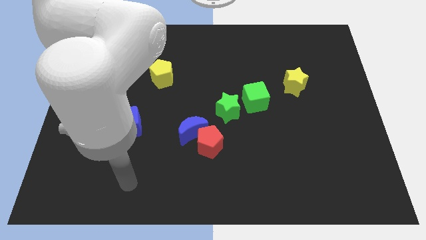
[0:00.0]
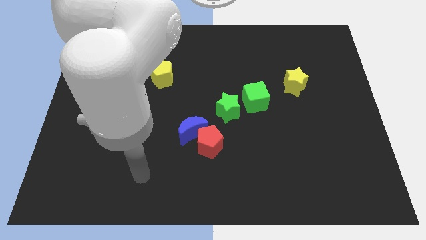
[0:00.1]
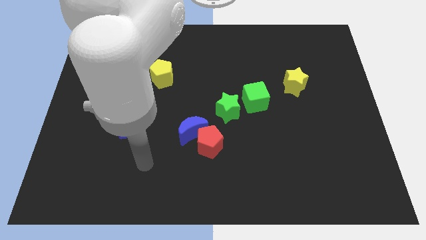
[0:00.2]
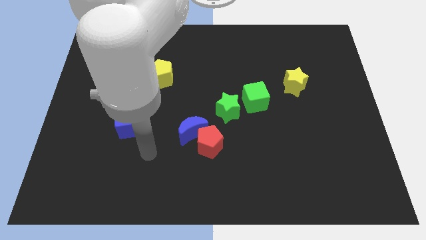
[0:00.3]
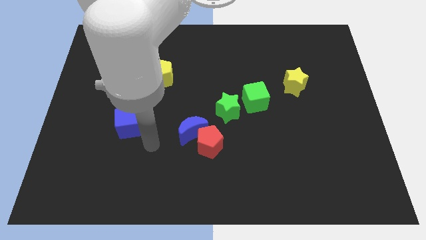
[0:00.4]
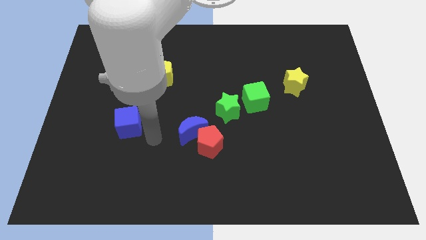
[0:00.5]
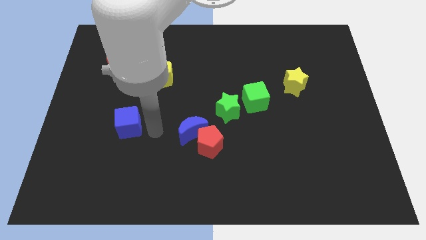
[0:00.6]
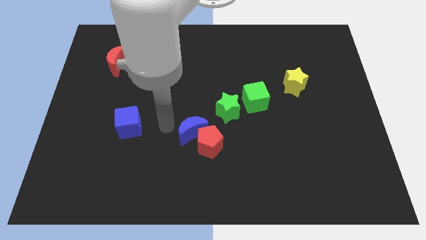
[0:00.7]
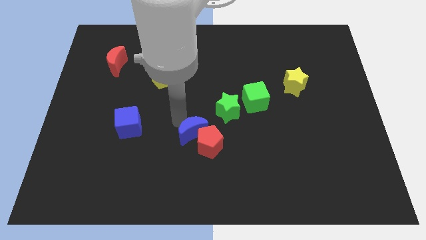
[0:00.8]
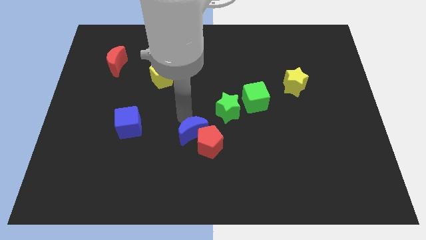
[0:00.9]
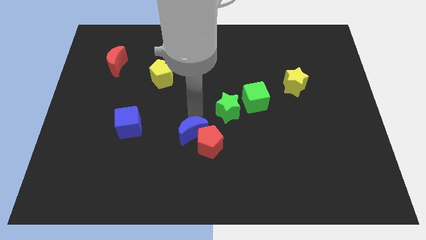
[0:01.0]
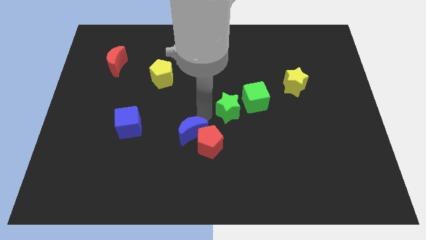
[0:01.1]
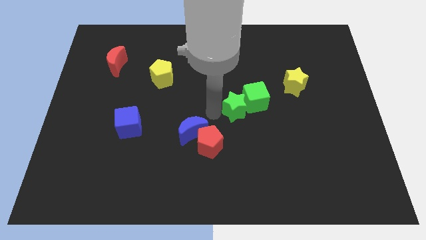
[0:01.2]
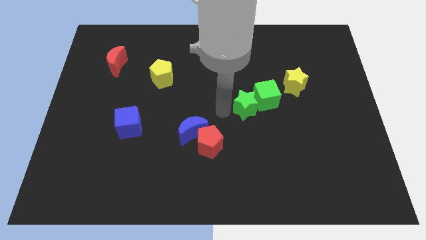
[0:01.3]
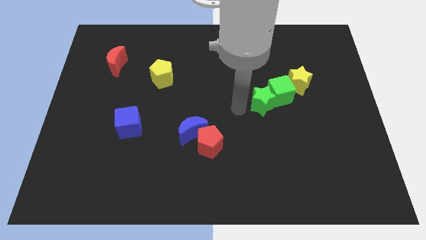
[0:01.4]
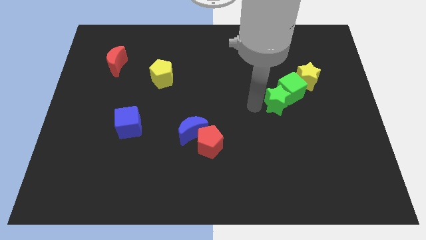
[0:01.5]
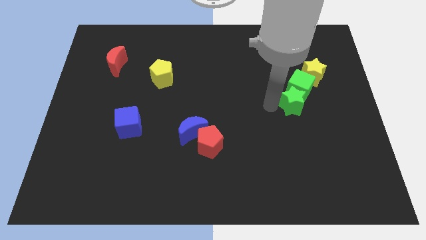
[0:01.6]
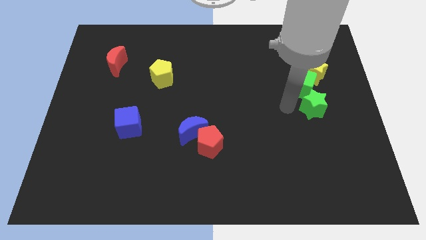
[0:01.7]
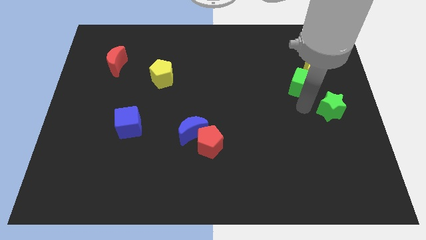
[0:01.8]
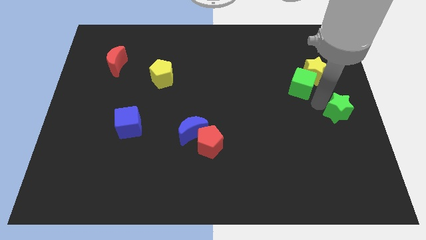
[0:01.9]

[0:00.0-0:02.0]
separate the green cube from the green star

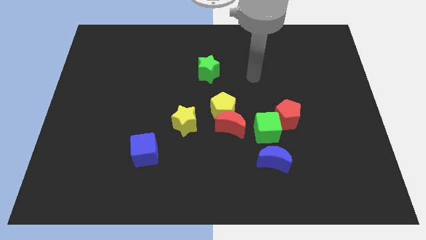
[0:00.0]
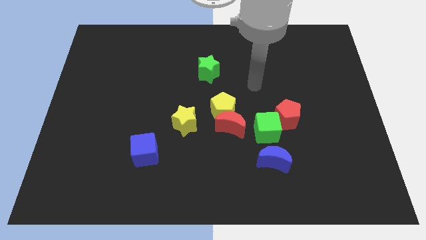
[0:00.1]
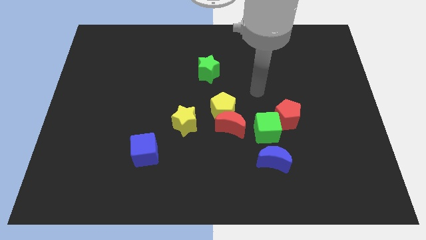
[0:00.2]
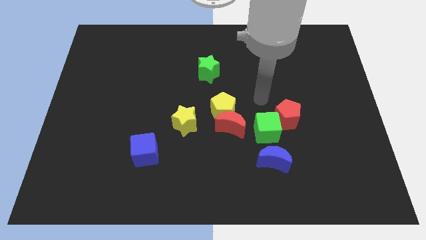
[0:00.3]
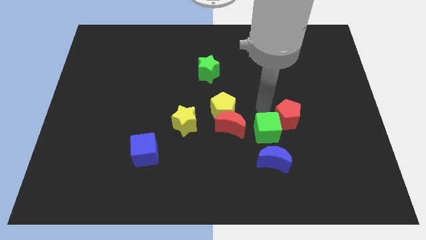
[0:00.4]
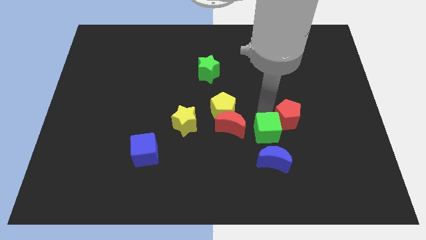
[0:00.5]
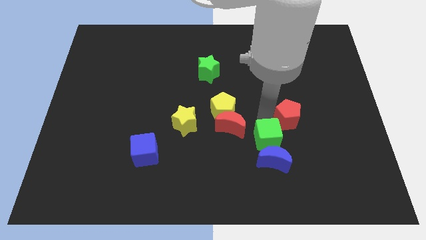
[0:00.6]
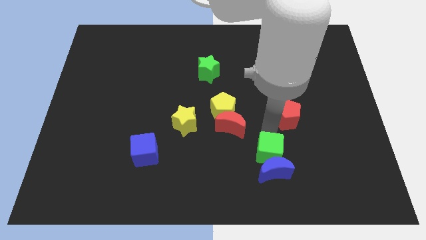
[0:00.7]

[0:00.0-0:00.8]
move the red pentagon away from the green cube

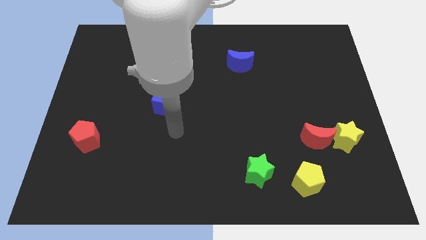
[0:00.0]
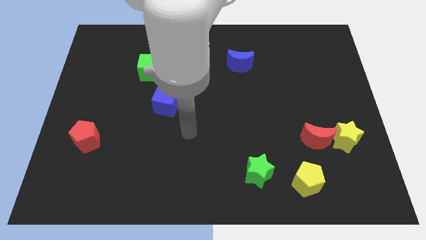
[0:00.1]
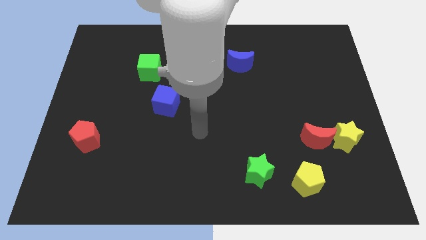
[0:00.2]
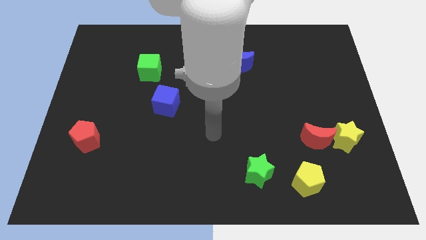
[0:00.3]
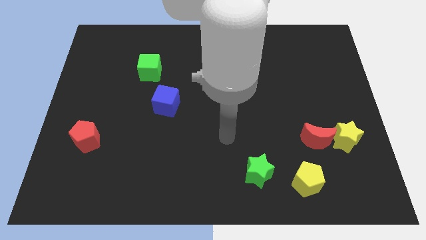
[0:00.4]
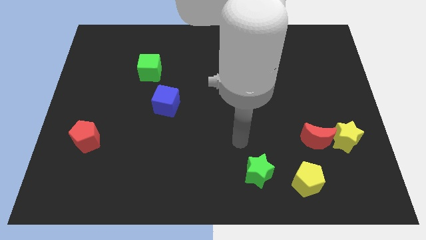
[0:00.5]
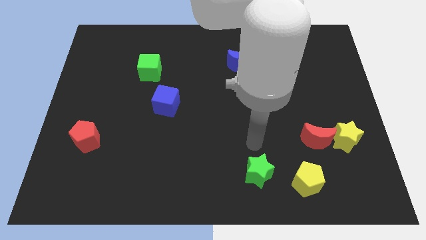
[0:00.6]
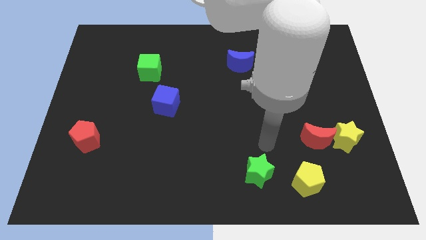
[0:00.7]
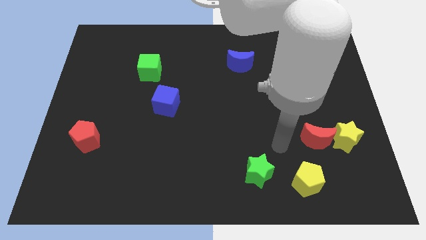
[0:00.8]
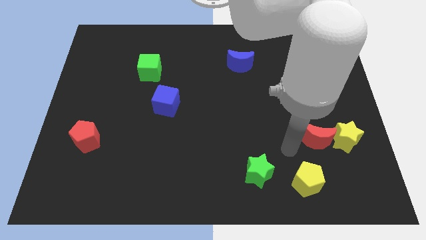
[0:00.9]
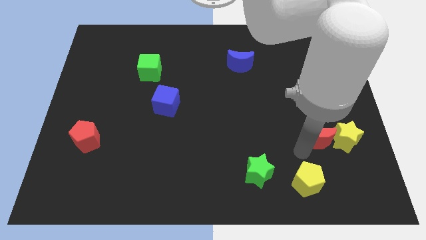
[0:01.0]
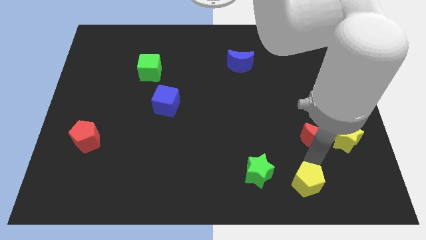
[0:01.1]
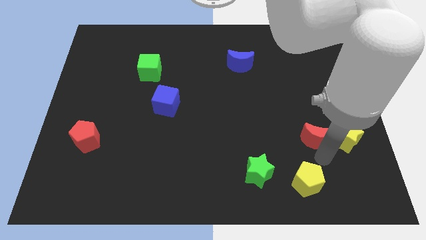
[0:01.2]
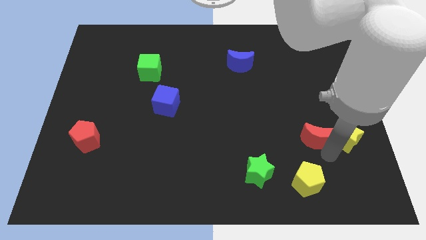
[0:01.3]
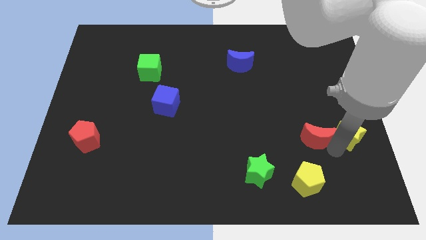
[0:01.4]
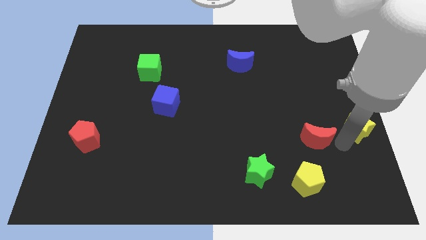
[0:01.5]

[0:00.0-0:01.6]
separate the red moon from the yellow star

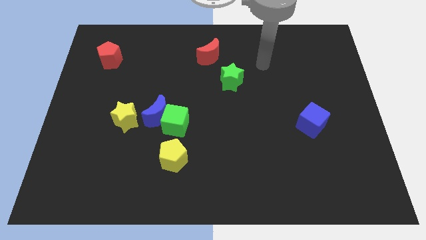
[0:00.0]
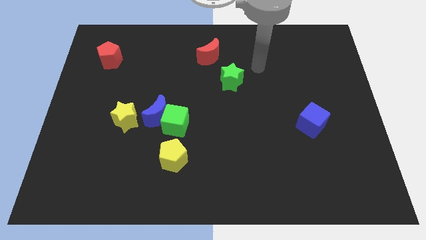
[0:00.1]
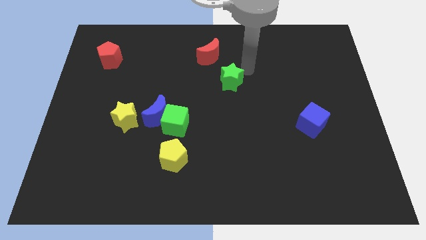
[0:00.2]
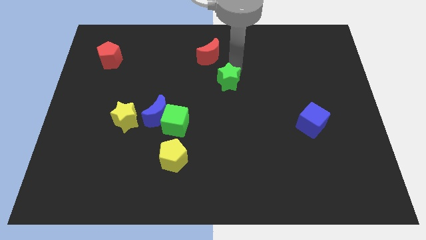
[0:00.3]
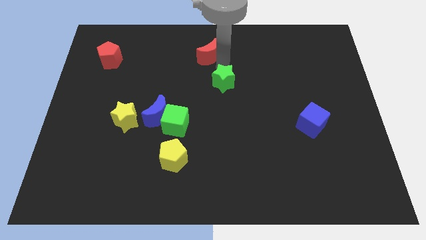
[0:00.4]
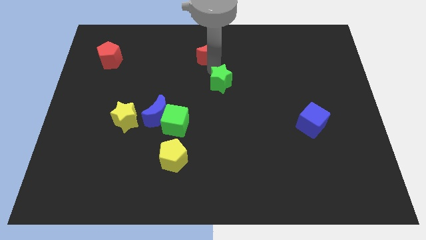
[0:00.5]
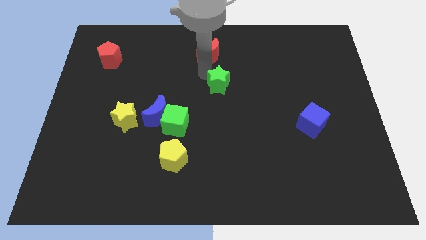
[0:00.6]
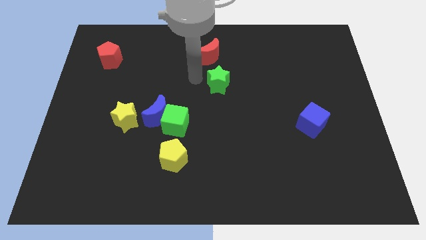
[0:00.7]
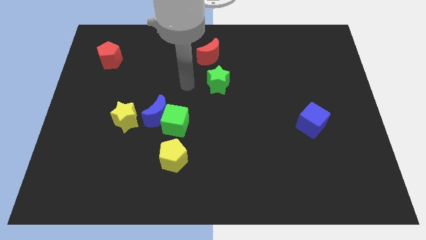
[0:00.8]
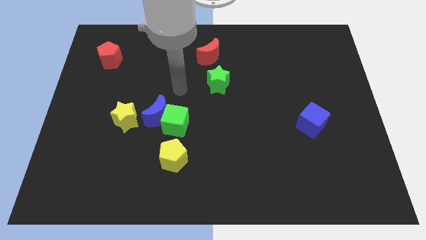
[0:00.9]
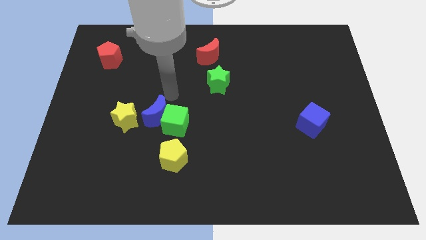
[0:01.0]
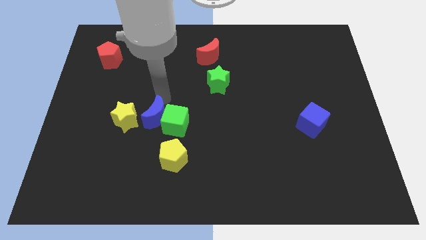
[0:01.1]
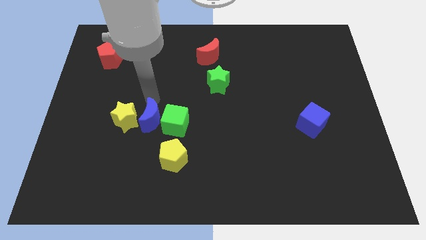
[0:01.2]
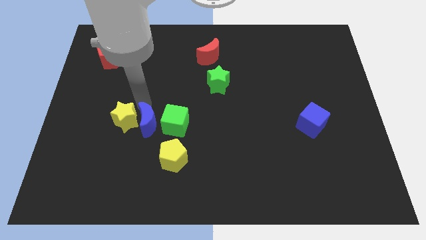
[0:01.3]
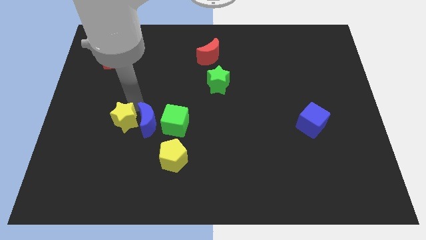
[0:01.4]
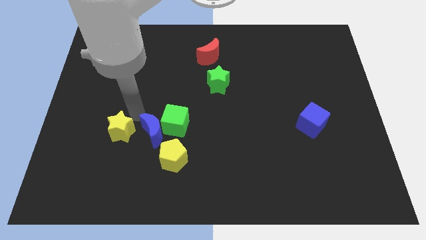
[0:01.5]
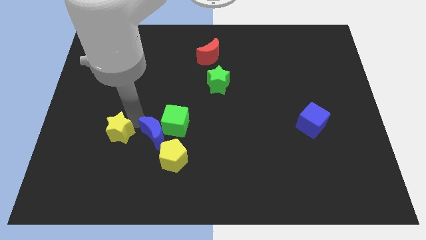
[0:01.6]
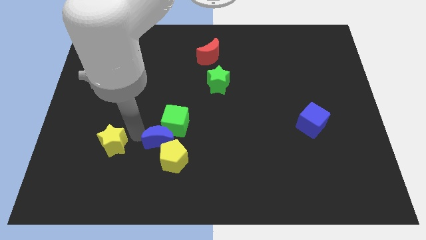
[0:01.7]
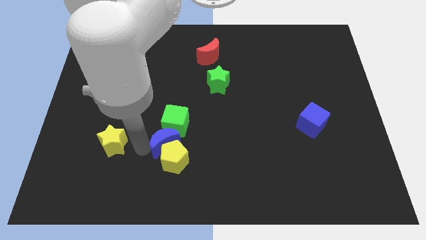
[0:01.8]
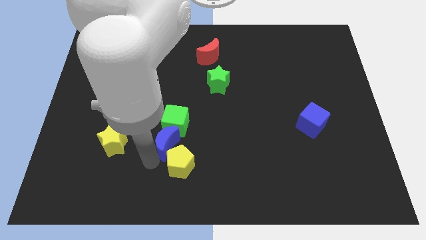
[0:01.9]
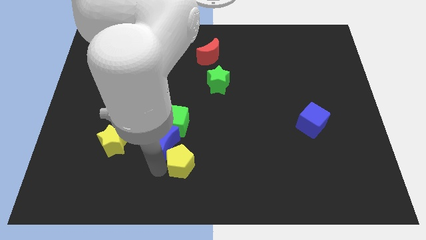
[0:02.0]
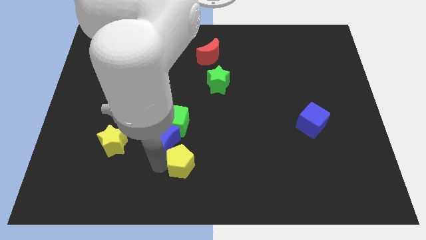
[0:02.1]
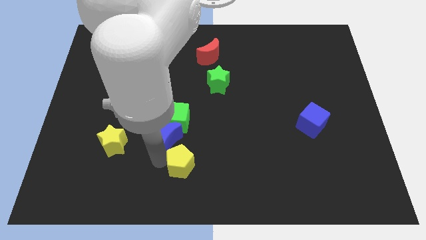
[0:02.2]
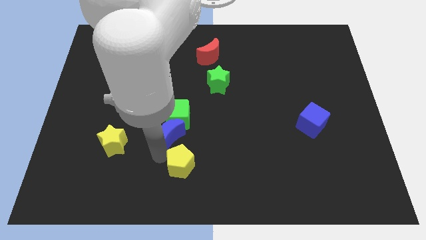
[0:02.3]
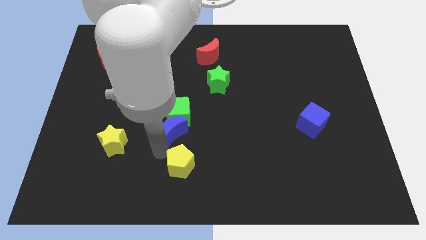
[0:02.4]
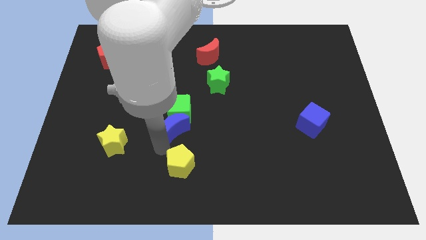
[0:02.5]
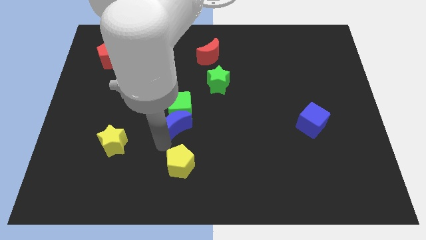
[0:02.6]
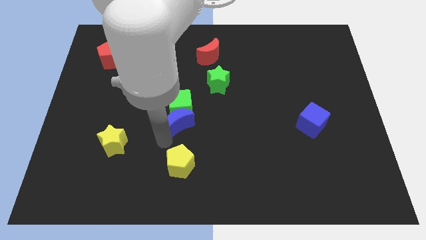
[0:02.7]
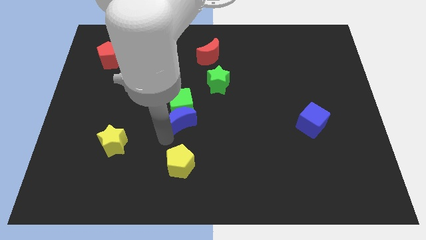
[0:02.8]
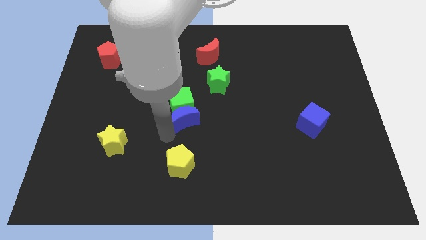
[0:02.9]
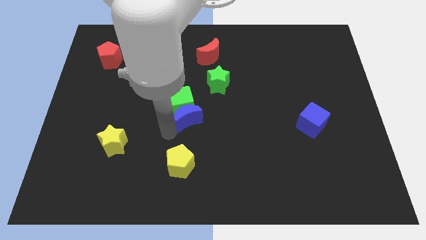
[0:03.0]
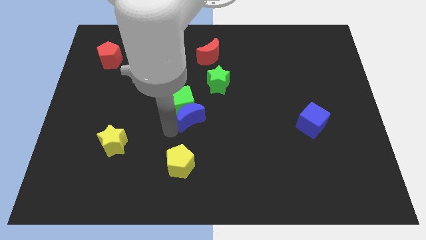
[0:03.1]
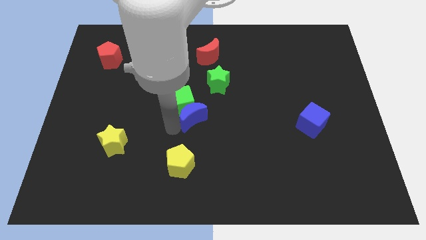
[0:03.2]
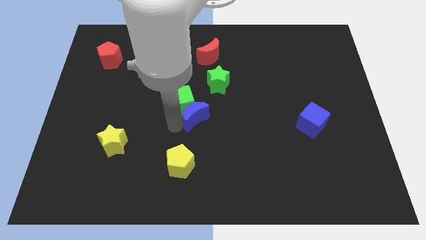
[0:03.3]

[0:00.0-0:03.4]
pull the blue moon apart from the green cube and yellow star

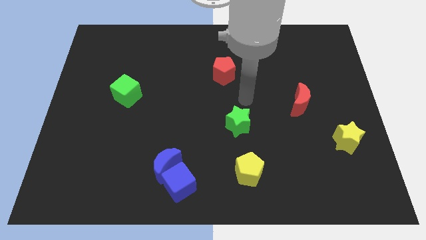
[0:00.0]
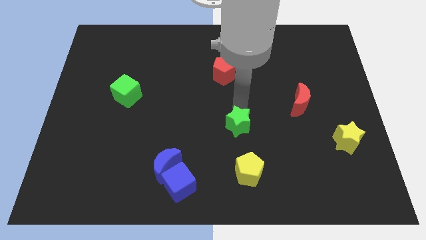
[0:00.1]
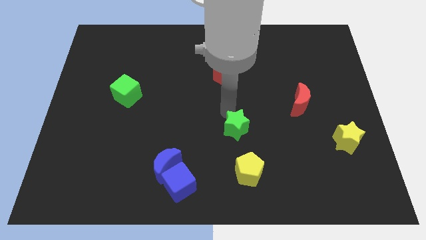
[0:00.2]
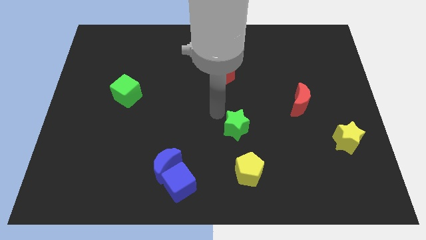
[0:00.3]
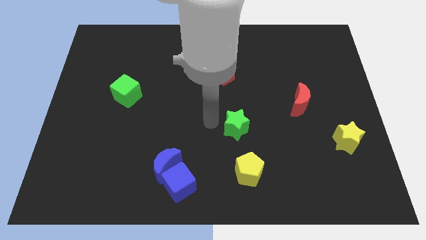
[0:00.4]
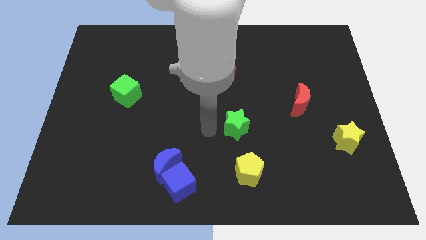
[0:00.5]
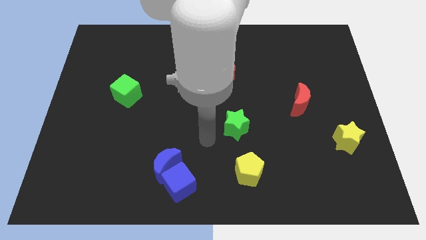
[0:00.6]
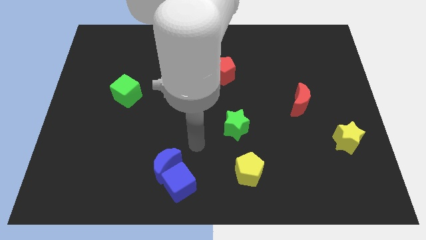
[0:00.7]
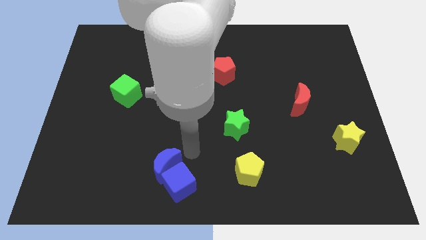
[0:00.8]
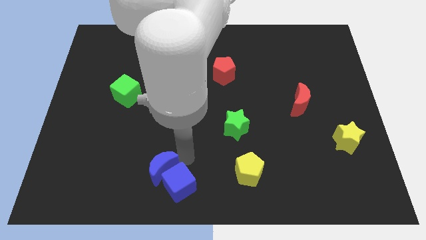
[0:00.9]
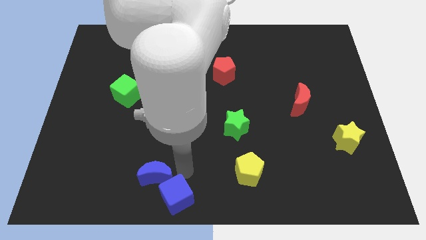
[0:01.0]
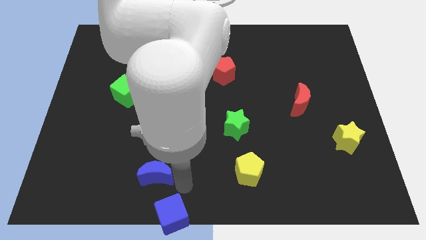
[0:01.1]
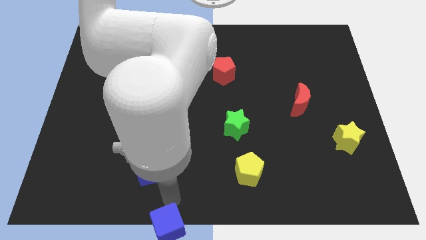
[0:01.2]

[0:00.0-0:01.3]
pull the blue moon apart from the blue cube

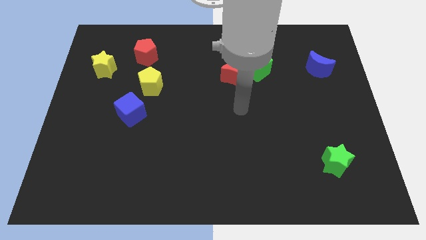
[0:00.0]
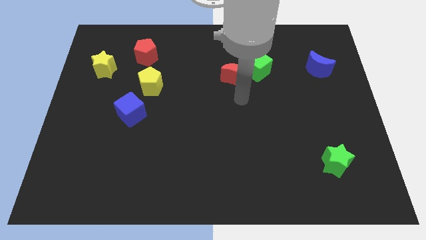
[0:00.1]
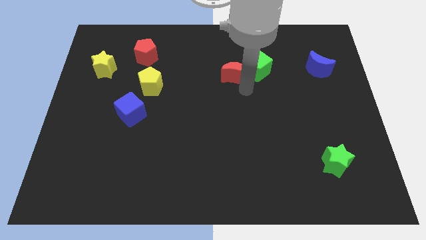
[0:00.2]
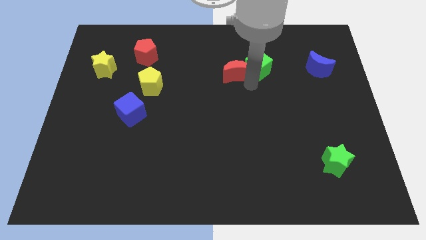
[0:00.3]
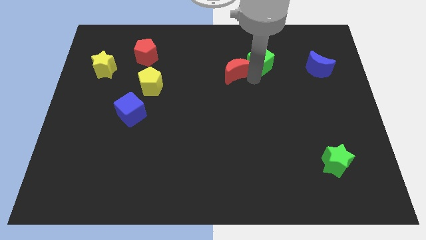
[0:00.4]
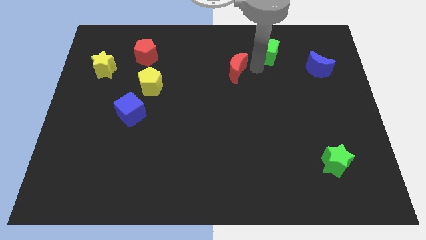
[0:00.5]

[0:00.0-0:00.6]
move the red moon away from the green cube
